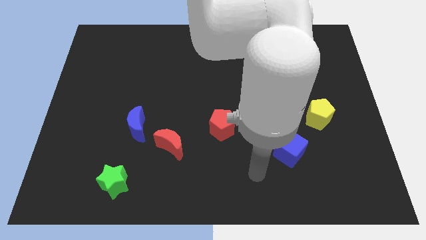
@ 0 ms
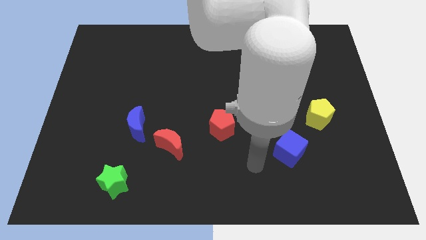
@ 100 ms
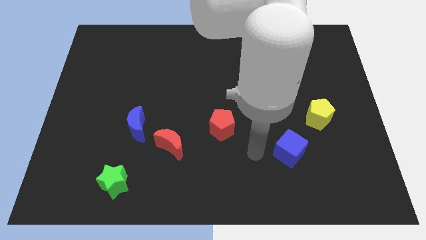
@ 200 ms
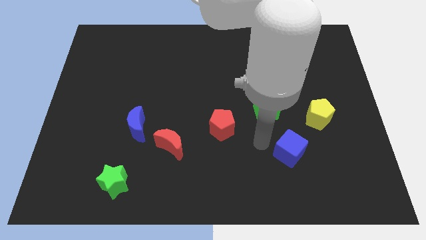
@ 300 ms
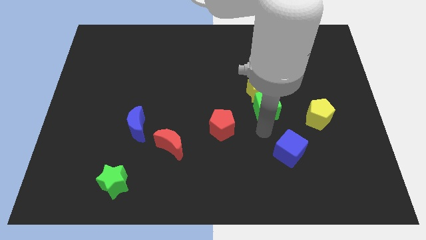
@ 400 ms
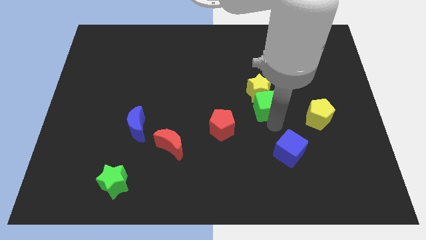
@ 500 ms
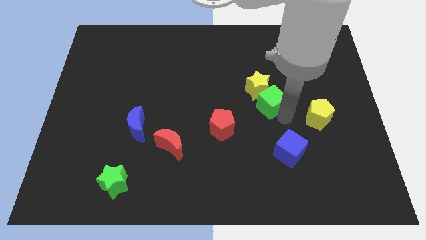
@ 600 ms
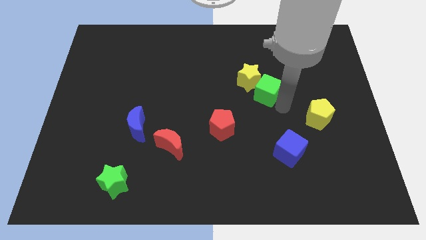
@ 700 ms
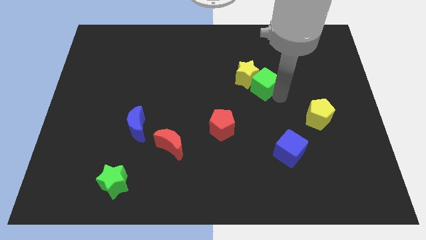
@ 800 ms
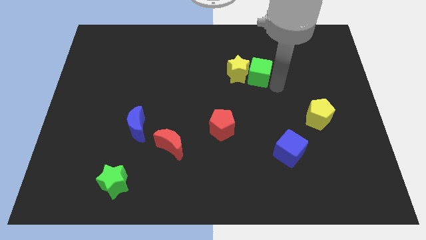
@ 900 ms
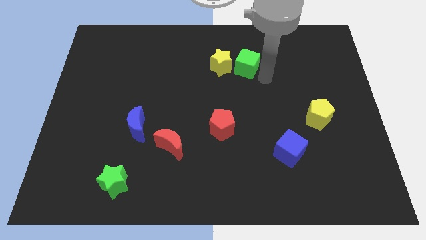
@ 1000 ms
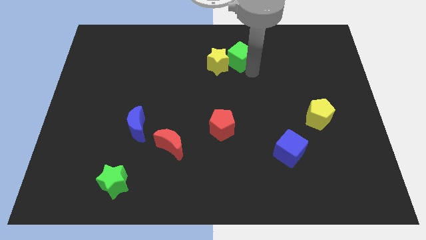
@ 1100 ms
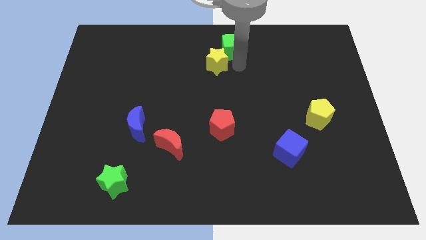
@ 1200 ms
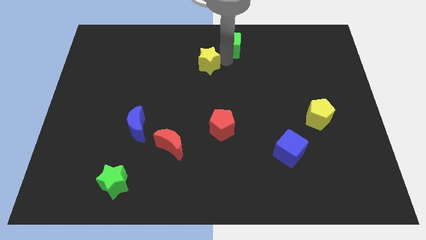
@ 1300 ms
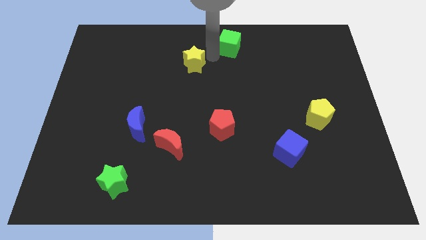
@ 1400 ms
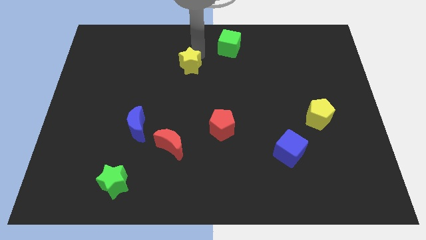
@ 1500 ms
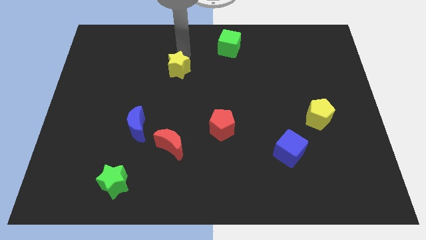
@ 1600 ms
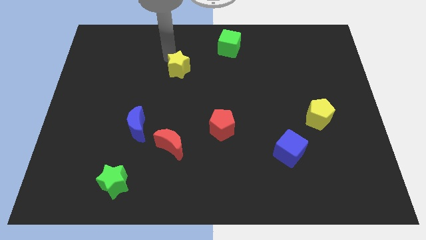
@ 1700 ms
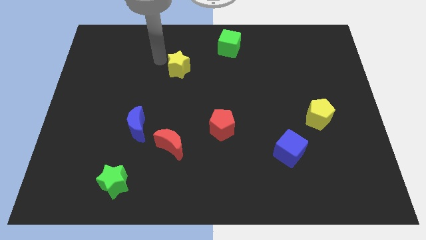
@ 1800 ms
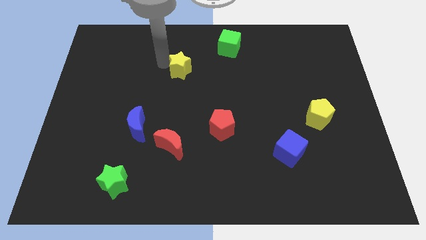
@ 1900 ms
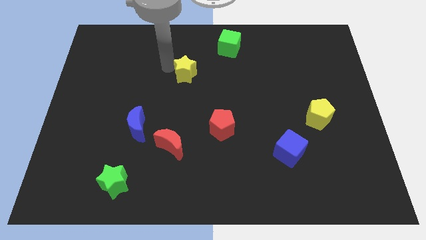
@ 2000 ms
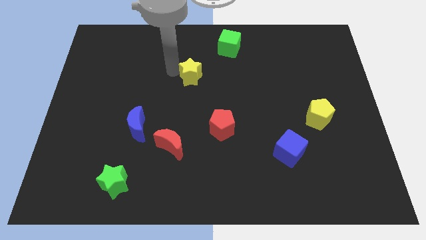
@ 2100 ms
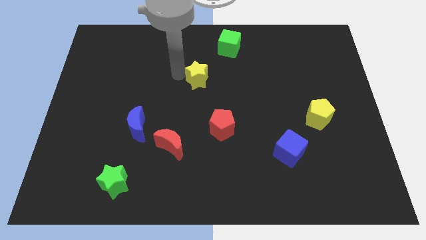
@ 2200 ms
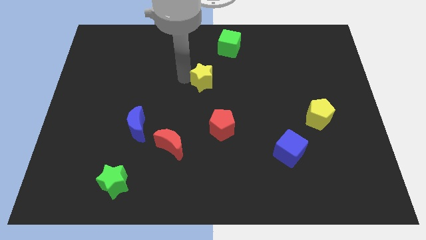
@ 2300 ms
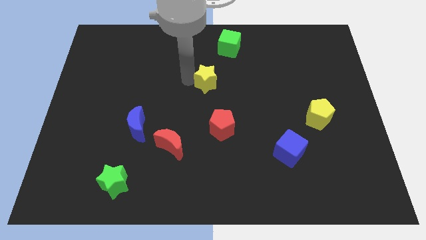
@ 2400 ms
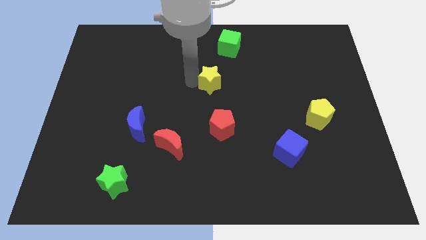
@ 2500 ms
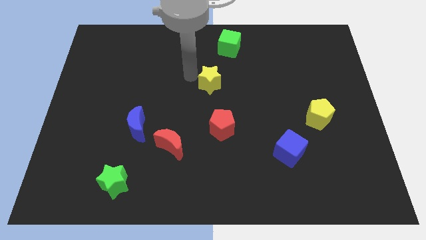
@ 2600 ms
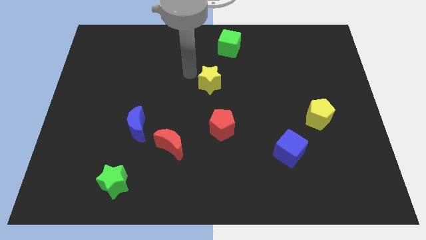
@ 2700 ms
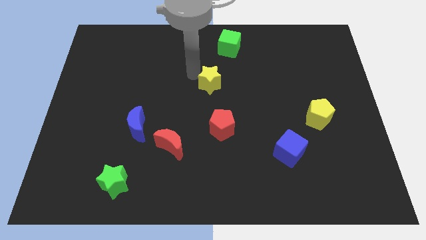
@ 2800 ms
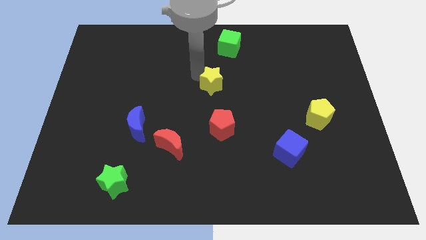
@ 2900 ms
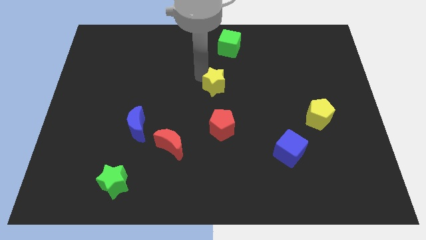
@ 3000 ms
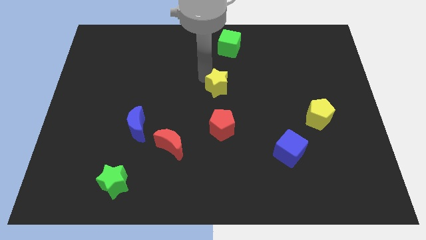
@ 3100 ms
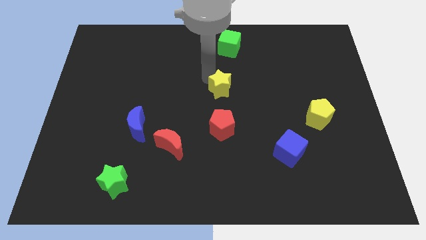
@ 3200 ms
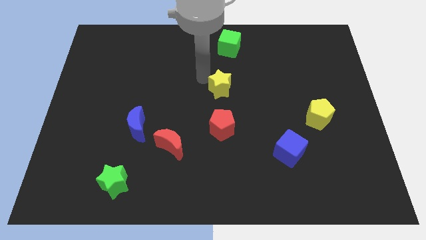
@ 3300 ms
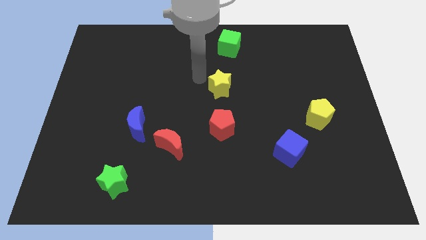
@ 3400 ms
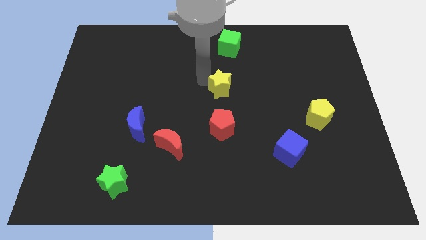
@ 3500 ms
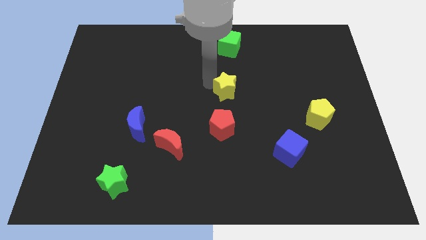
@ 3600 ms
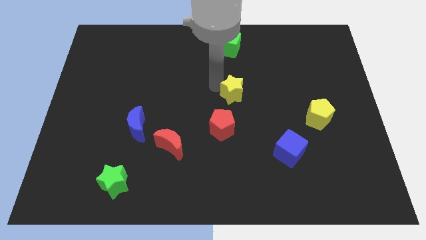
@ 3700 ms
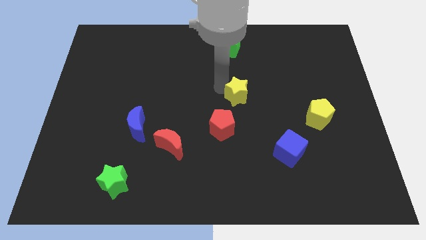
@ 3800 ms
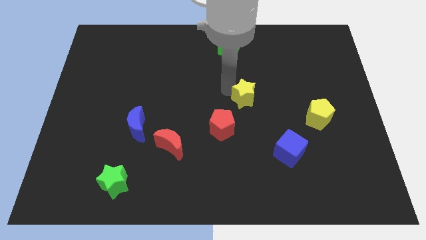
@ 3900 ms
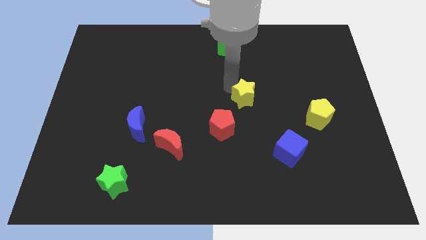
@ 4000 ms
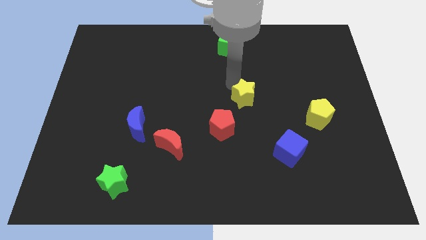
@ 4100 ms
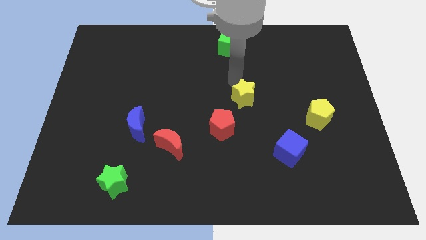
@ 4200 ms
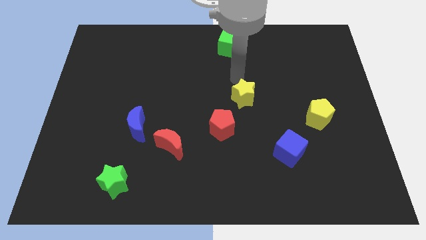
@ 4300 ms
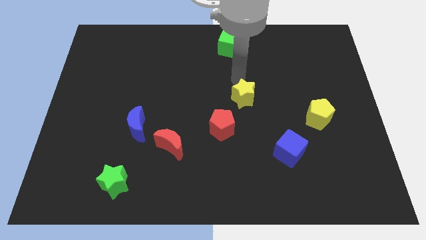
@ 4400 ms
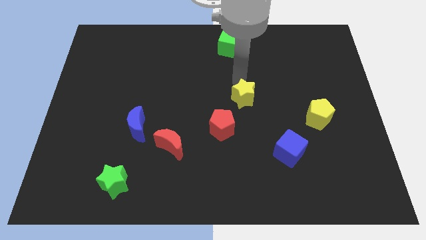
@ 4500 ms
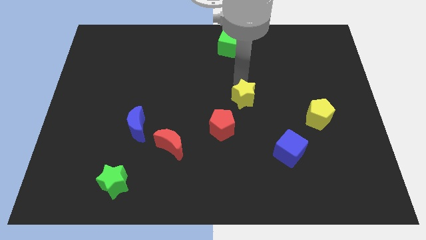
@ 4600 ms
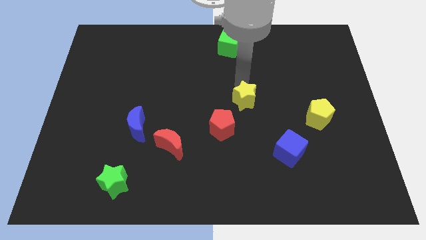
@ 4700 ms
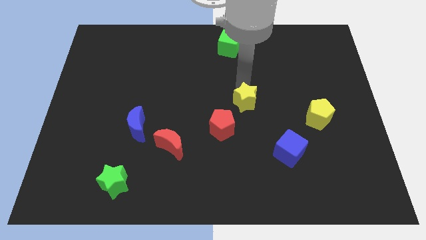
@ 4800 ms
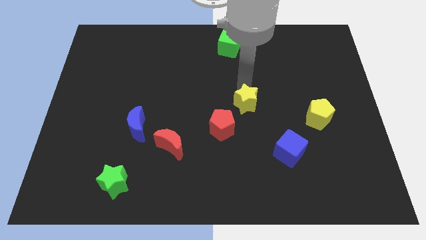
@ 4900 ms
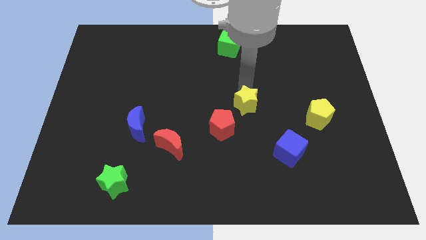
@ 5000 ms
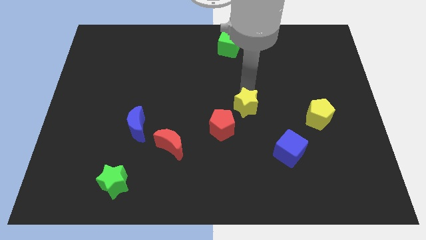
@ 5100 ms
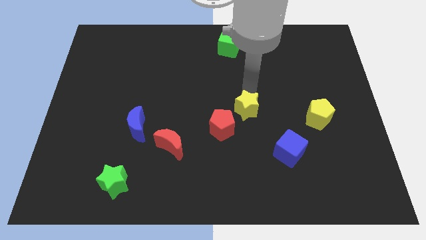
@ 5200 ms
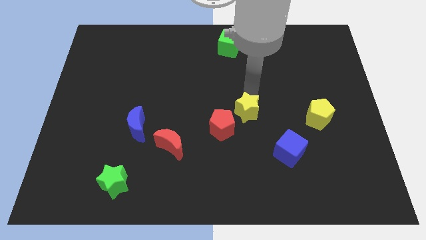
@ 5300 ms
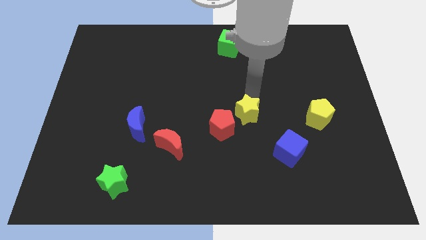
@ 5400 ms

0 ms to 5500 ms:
move the yellow star diagonally up and to the left of the blue cube

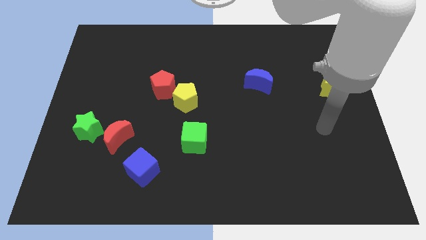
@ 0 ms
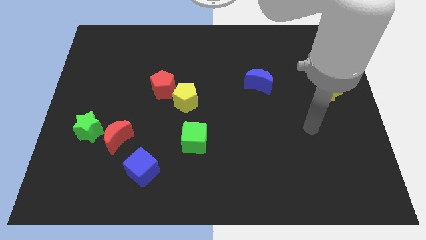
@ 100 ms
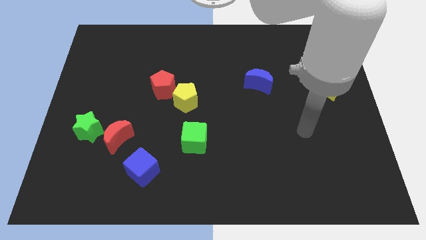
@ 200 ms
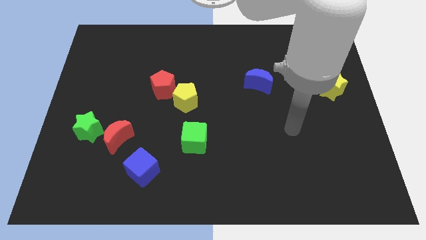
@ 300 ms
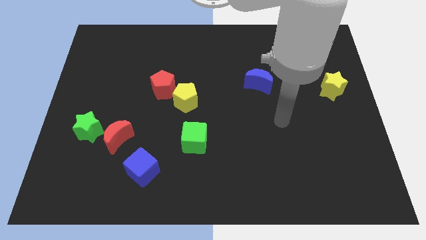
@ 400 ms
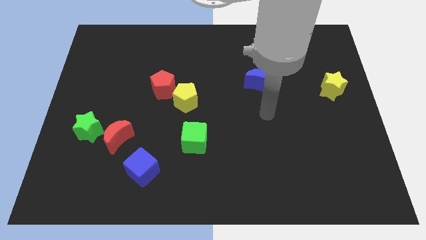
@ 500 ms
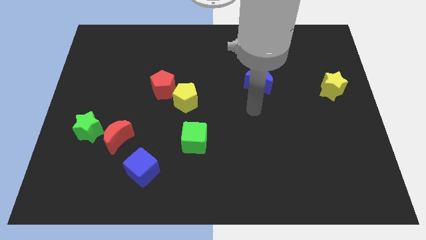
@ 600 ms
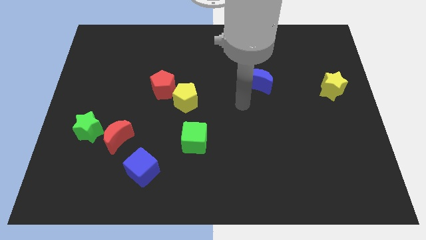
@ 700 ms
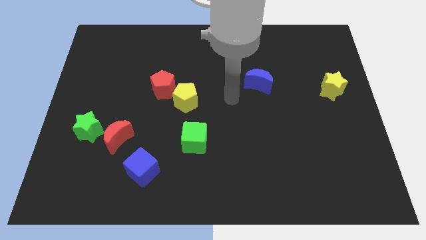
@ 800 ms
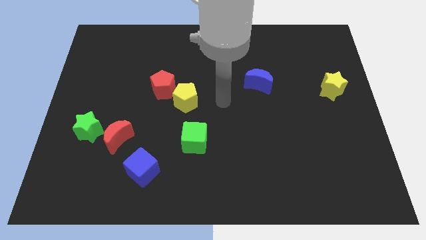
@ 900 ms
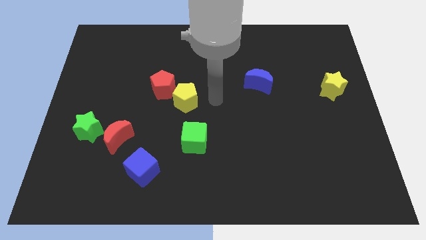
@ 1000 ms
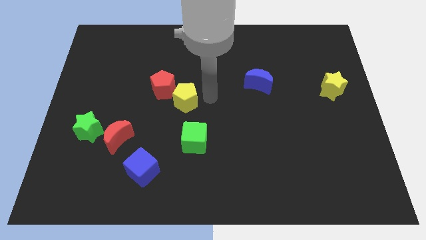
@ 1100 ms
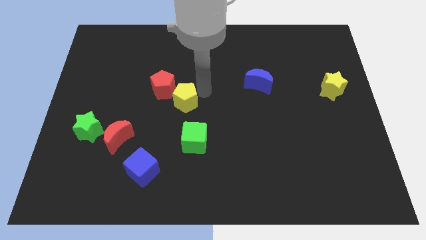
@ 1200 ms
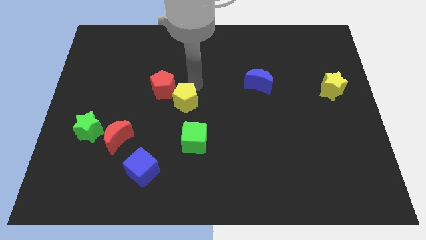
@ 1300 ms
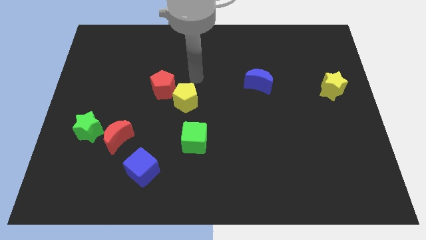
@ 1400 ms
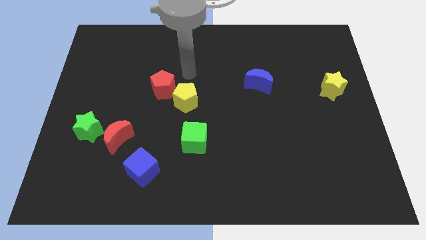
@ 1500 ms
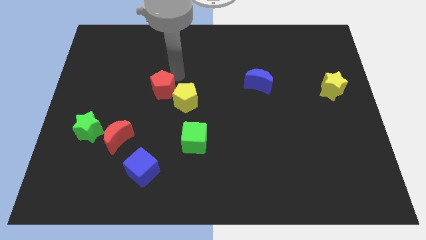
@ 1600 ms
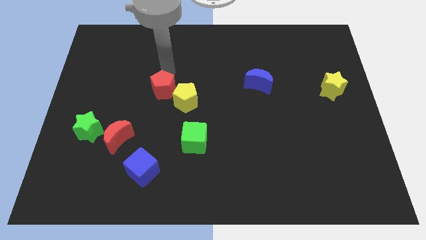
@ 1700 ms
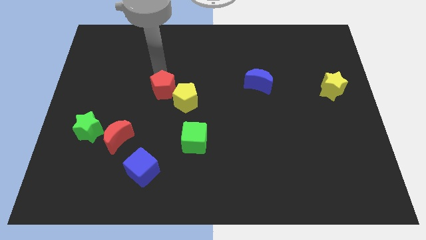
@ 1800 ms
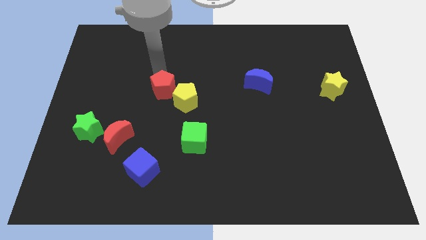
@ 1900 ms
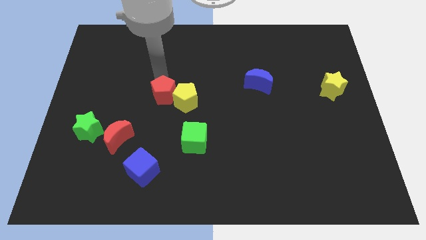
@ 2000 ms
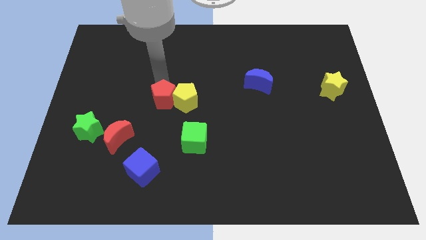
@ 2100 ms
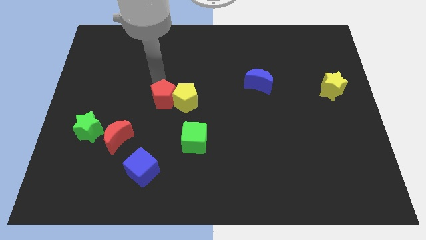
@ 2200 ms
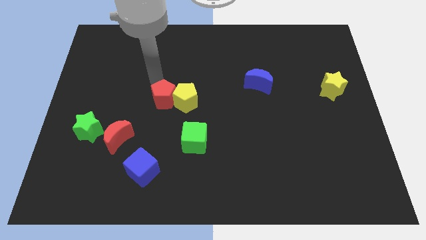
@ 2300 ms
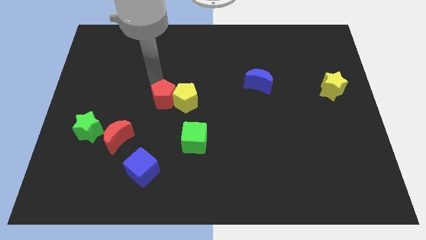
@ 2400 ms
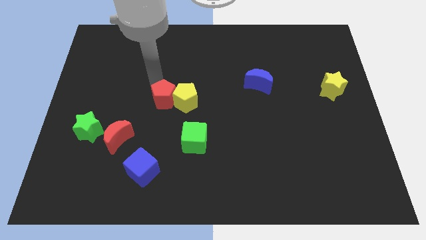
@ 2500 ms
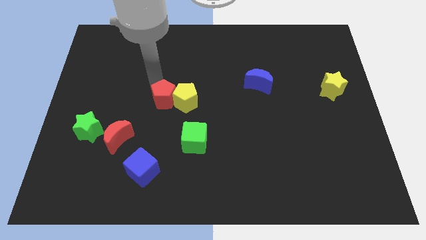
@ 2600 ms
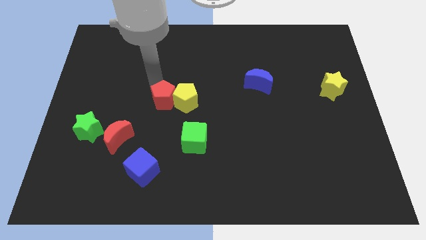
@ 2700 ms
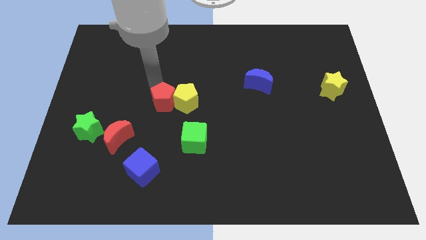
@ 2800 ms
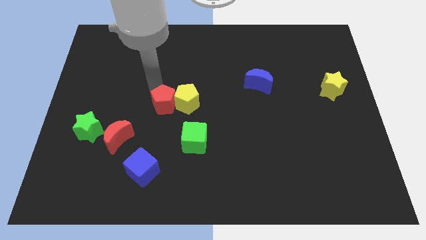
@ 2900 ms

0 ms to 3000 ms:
push the red pentagon to the top left side of the green cube
